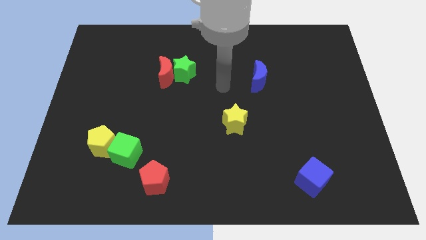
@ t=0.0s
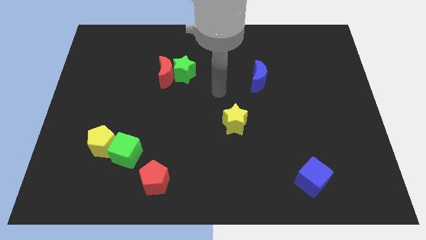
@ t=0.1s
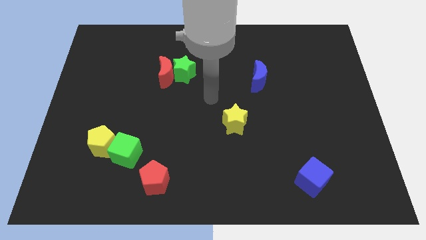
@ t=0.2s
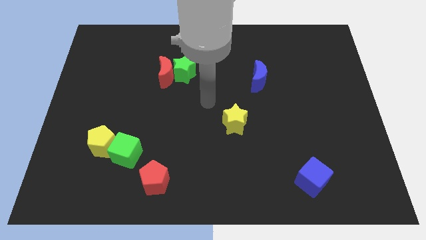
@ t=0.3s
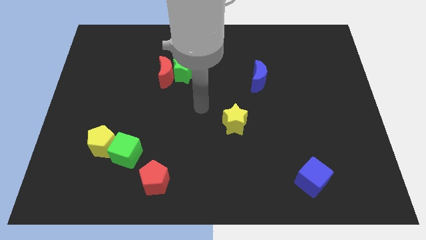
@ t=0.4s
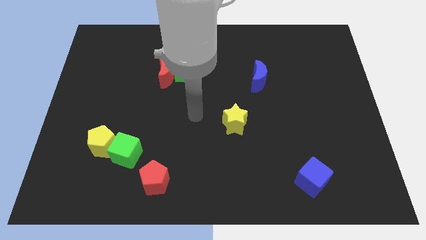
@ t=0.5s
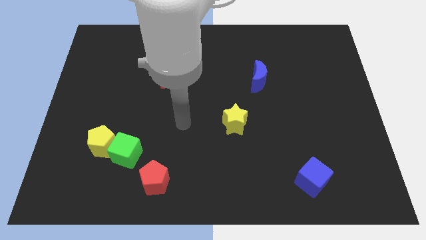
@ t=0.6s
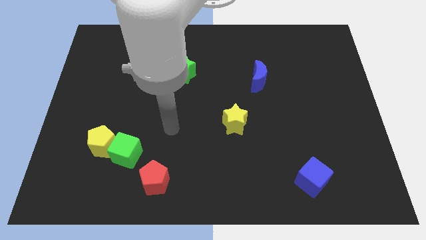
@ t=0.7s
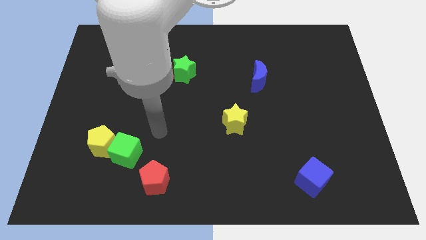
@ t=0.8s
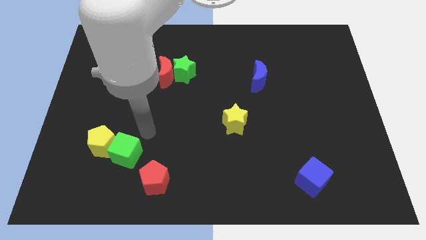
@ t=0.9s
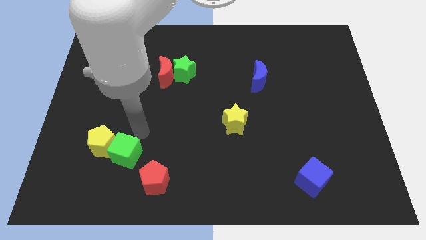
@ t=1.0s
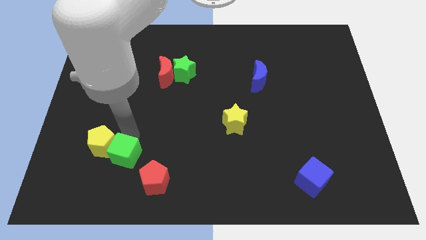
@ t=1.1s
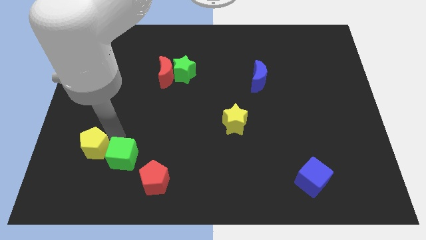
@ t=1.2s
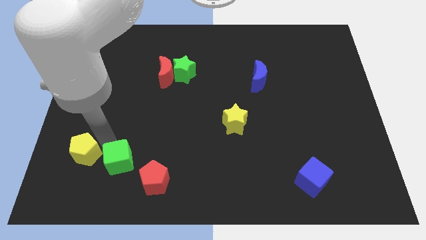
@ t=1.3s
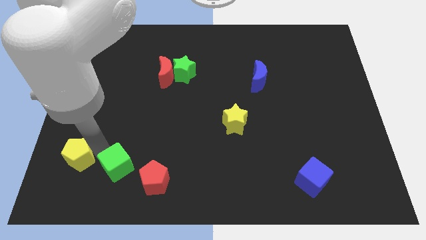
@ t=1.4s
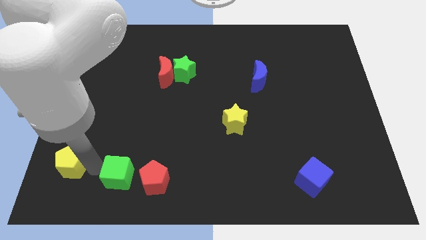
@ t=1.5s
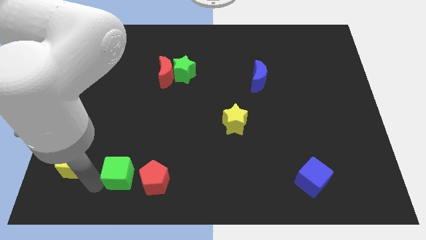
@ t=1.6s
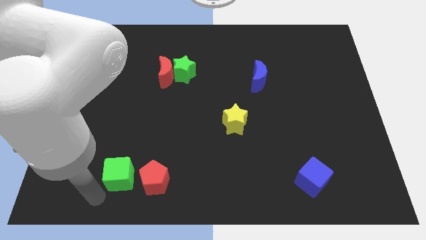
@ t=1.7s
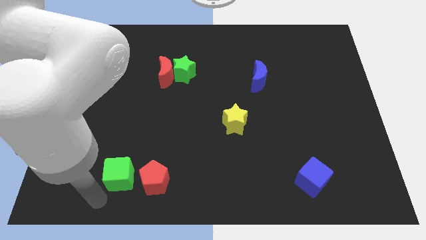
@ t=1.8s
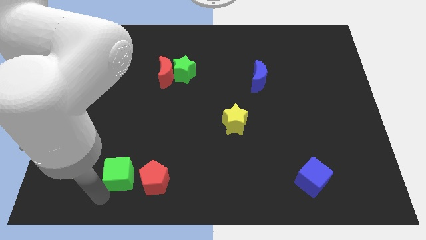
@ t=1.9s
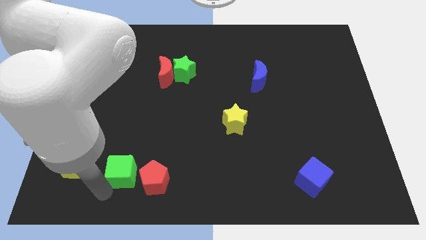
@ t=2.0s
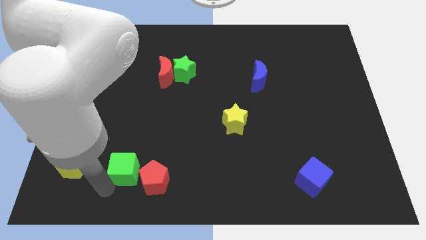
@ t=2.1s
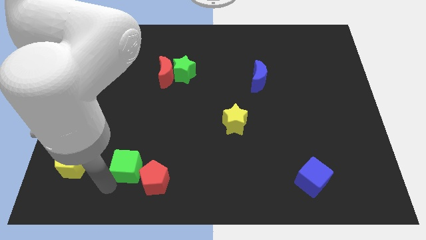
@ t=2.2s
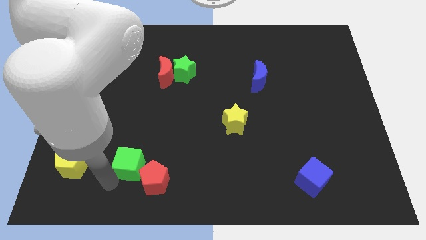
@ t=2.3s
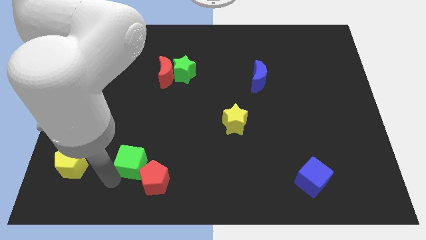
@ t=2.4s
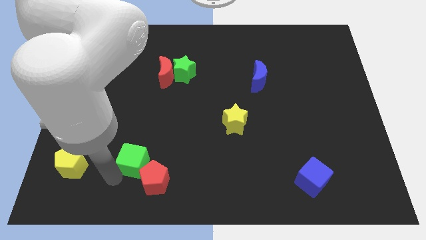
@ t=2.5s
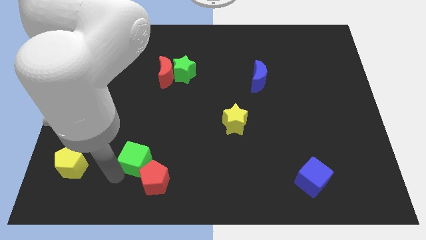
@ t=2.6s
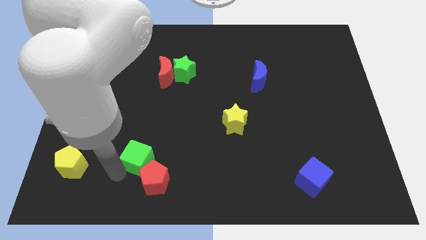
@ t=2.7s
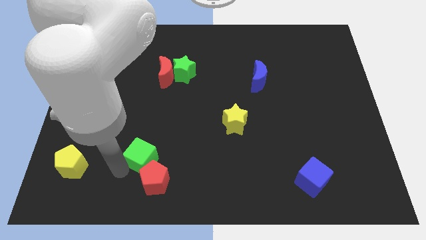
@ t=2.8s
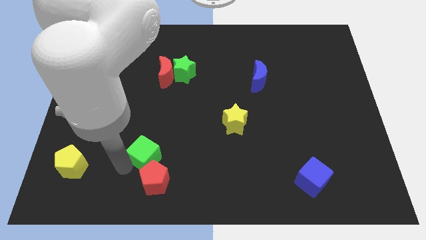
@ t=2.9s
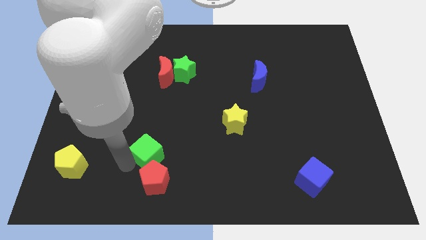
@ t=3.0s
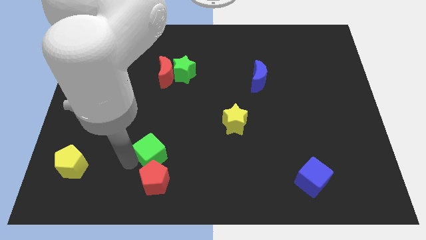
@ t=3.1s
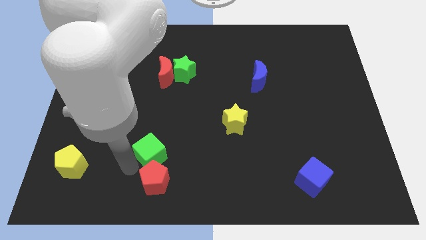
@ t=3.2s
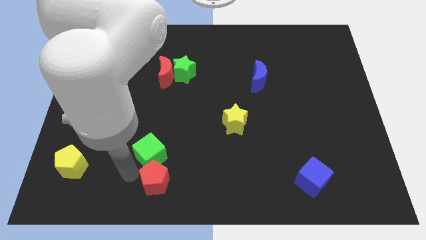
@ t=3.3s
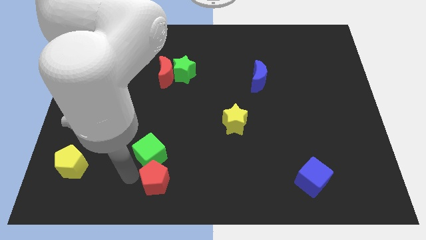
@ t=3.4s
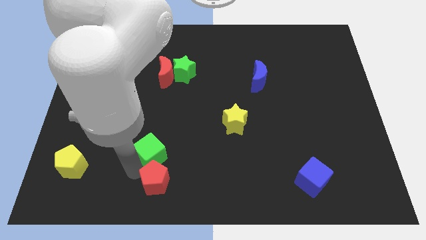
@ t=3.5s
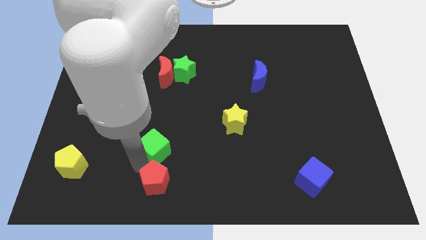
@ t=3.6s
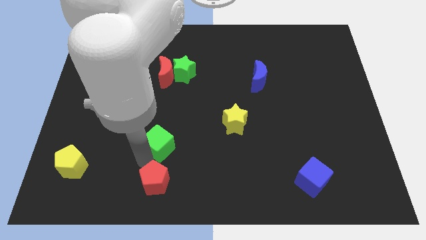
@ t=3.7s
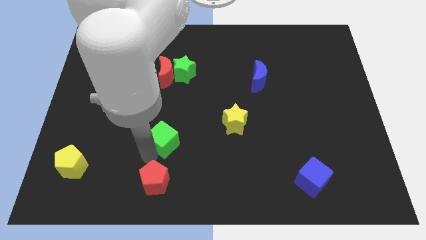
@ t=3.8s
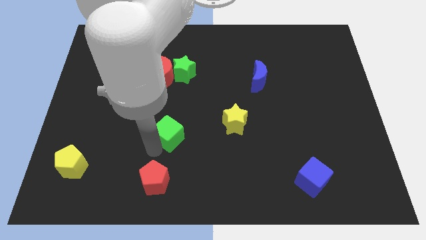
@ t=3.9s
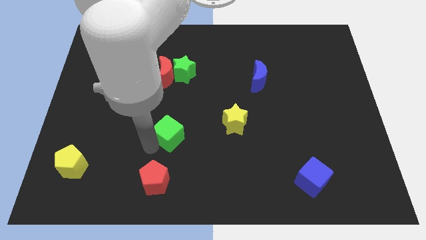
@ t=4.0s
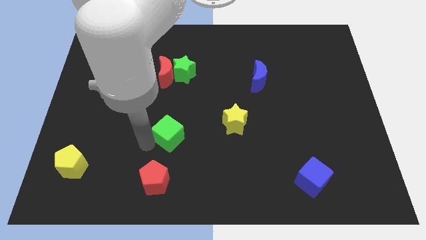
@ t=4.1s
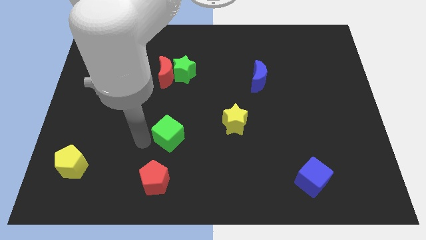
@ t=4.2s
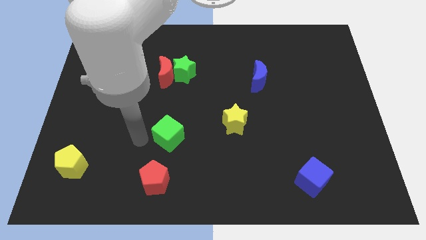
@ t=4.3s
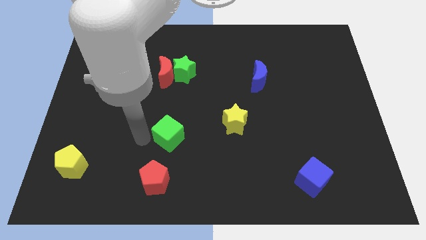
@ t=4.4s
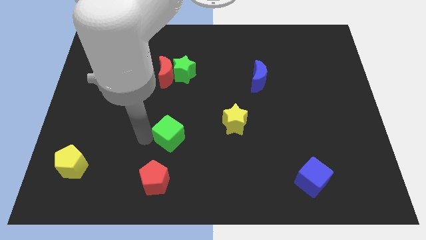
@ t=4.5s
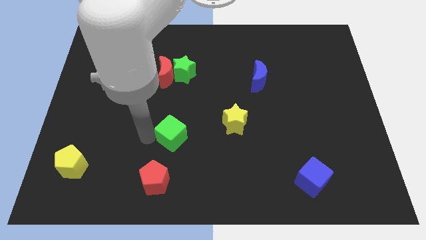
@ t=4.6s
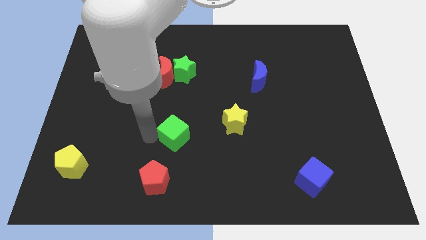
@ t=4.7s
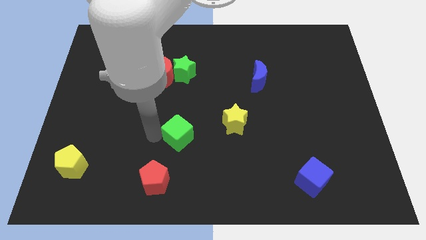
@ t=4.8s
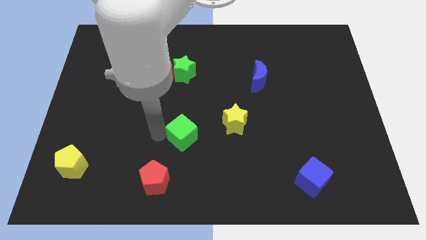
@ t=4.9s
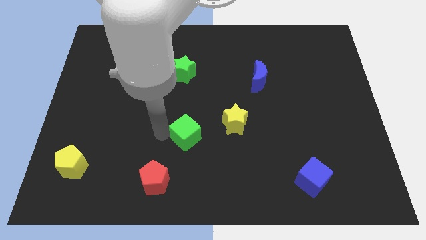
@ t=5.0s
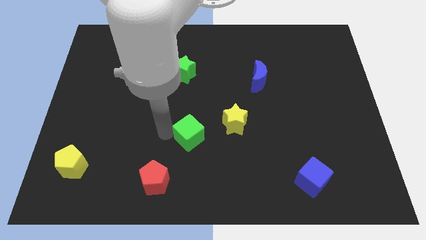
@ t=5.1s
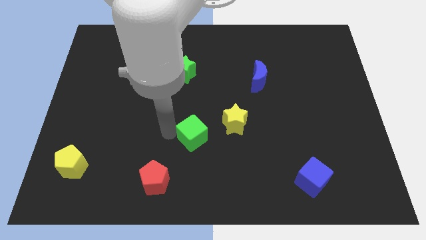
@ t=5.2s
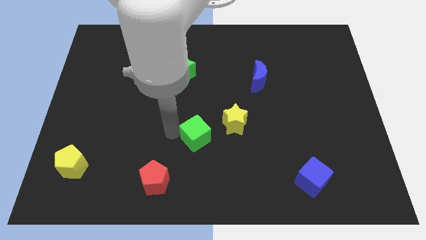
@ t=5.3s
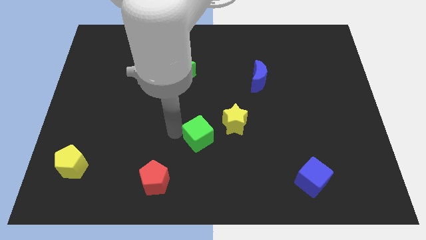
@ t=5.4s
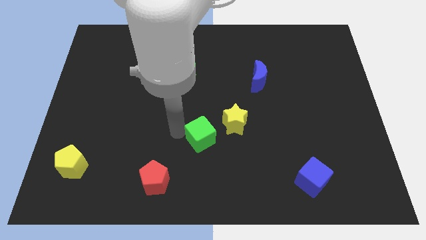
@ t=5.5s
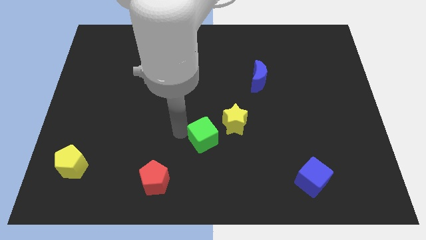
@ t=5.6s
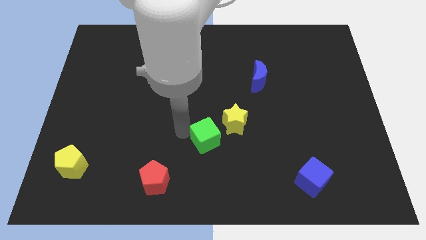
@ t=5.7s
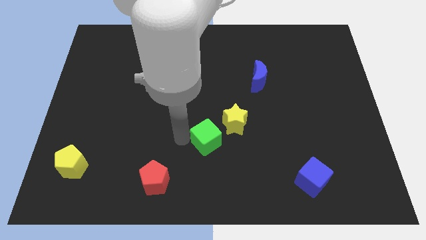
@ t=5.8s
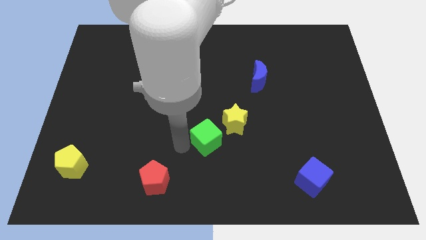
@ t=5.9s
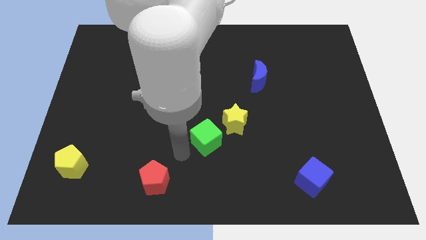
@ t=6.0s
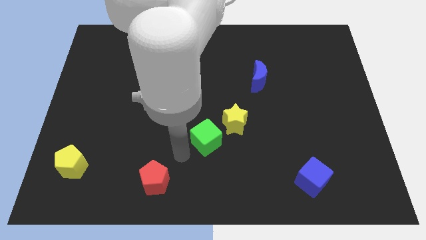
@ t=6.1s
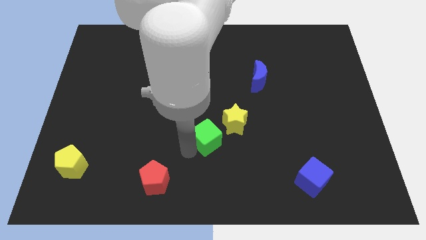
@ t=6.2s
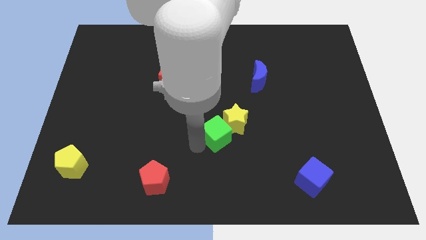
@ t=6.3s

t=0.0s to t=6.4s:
move the green cube towards the yellow star

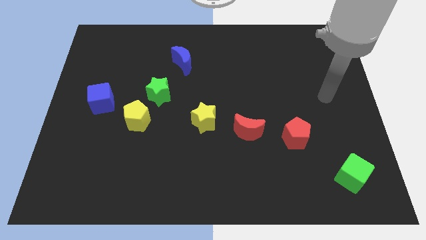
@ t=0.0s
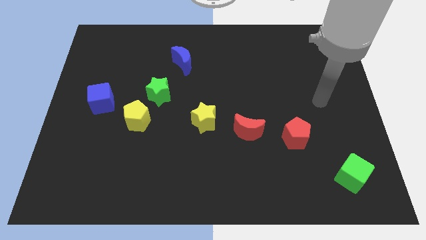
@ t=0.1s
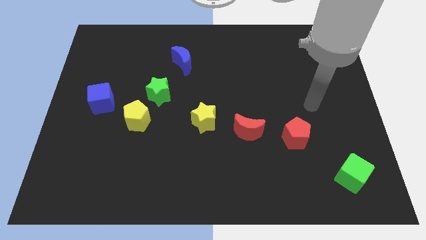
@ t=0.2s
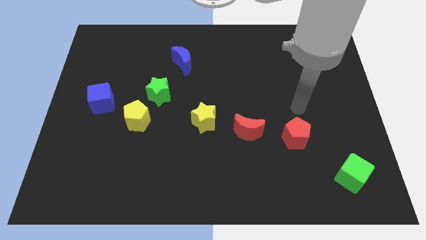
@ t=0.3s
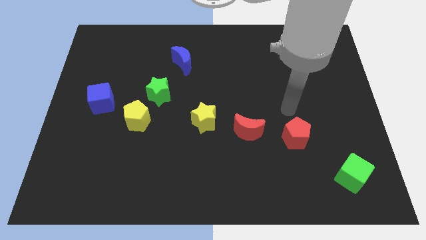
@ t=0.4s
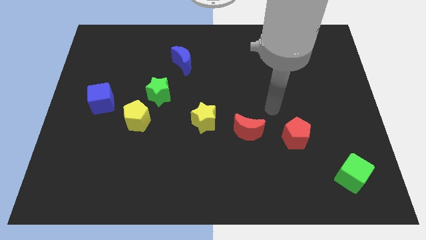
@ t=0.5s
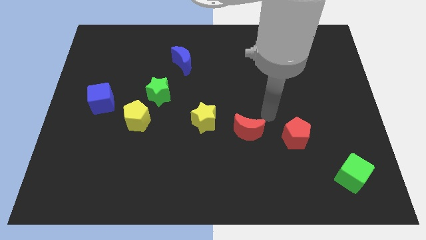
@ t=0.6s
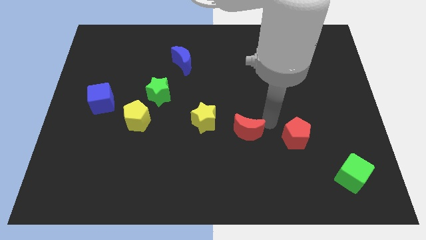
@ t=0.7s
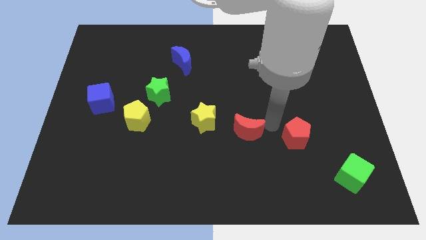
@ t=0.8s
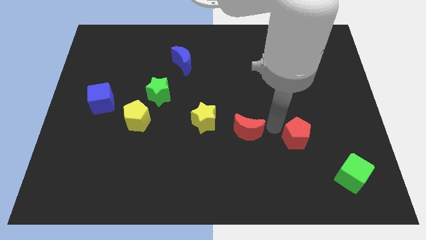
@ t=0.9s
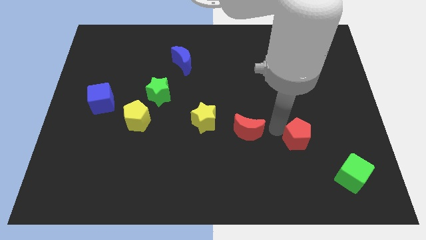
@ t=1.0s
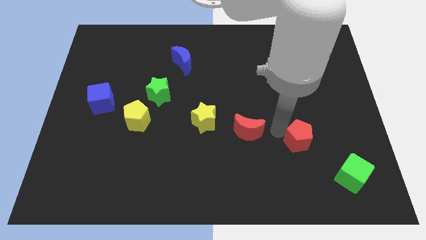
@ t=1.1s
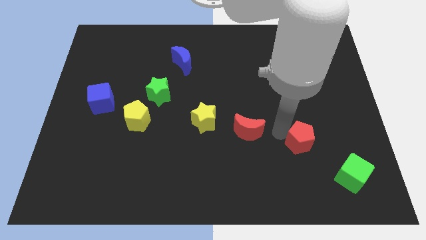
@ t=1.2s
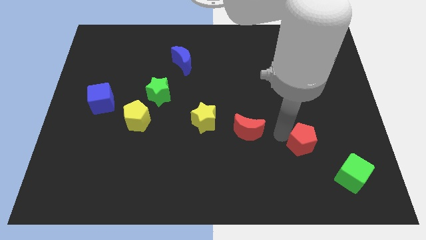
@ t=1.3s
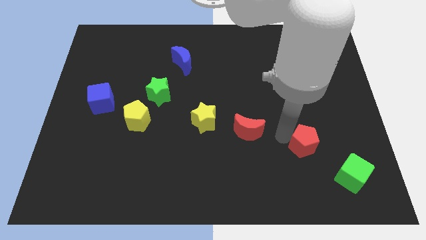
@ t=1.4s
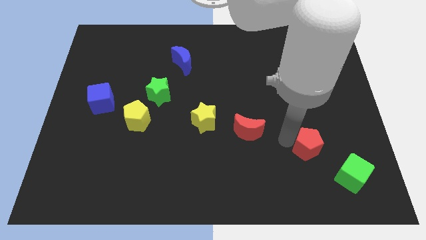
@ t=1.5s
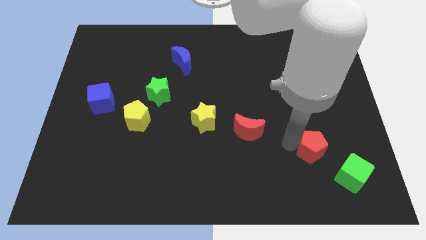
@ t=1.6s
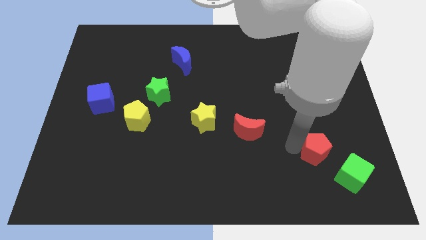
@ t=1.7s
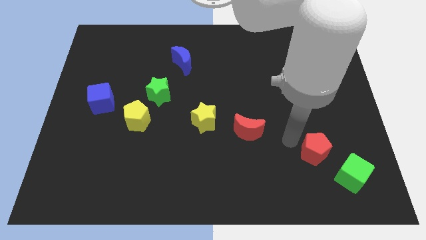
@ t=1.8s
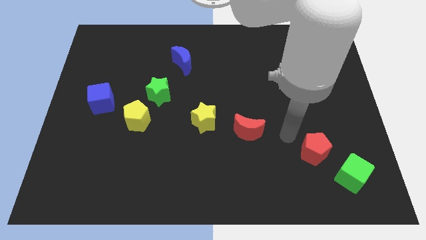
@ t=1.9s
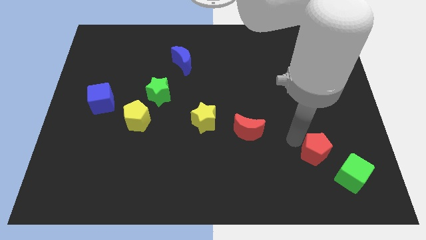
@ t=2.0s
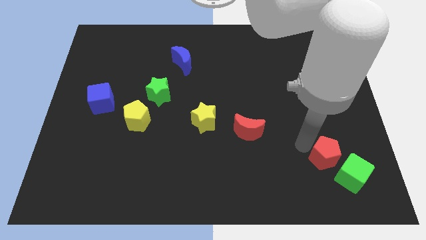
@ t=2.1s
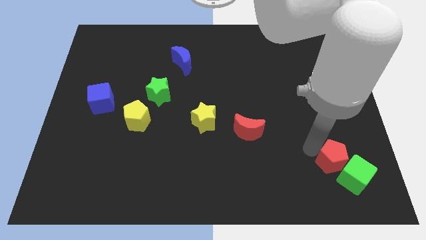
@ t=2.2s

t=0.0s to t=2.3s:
put the red pentagon next to the green cube
